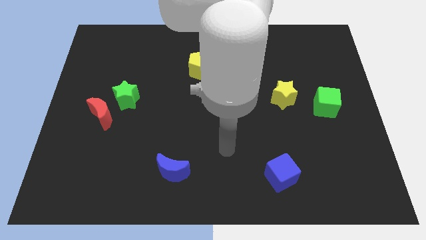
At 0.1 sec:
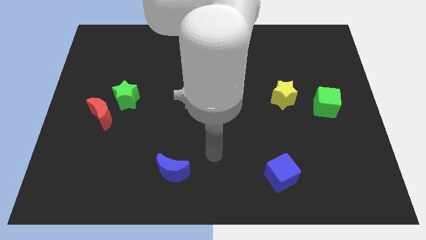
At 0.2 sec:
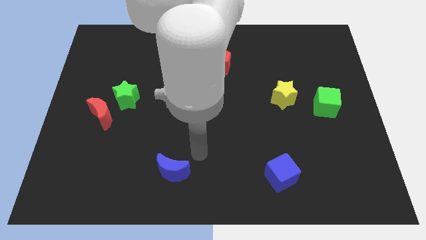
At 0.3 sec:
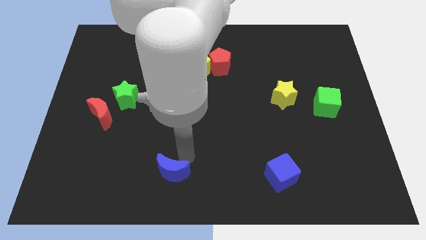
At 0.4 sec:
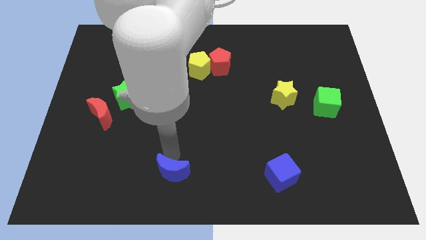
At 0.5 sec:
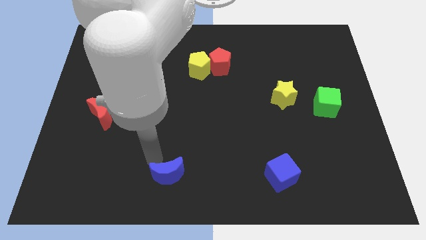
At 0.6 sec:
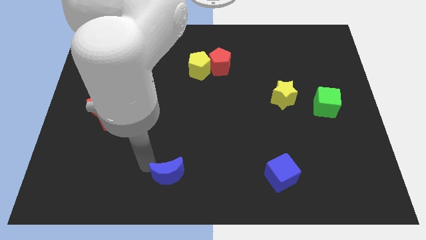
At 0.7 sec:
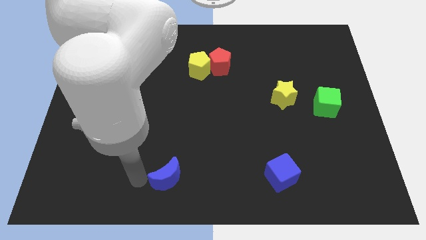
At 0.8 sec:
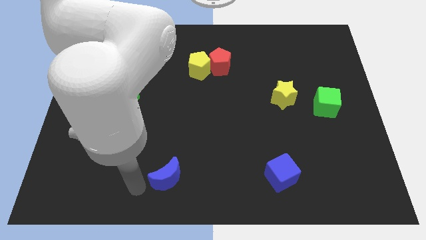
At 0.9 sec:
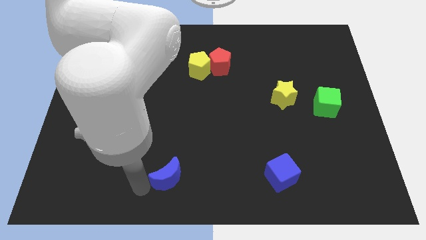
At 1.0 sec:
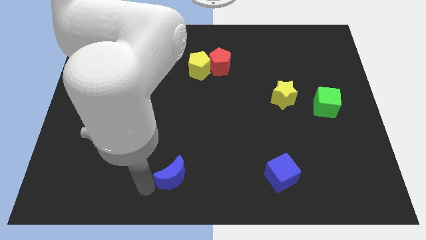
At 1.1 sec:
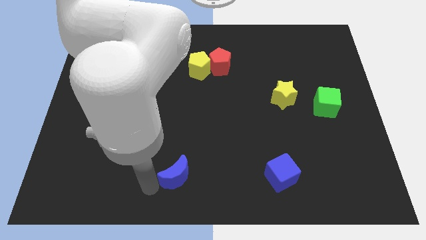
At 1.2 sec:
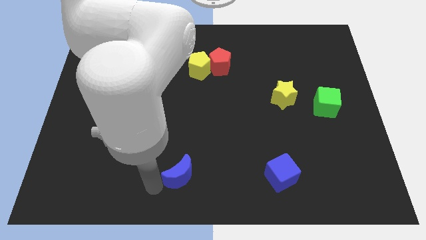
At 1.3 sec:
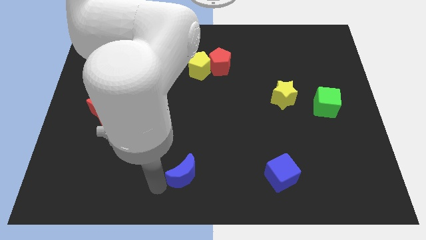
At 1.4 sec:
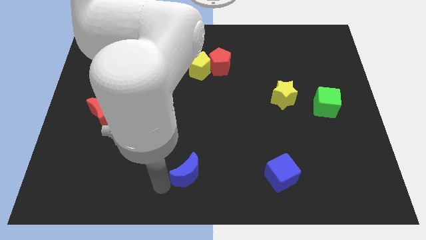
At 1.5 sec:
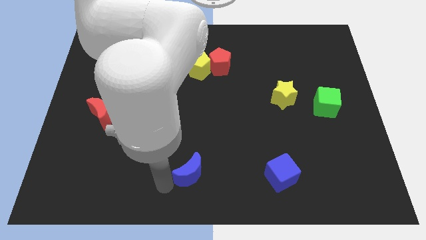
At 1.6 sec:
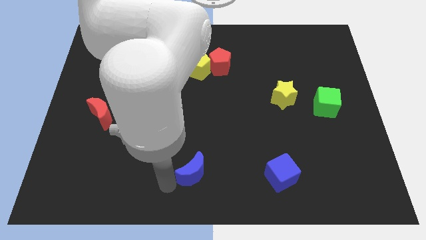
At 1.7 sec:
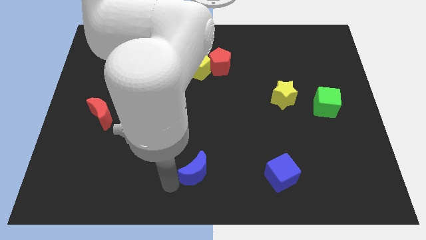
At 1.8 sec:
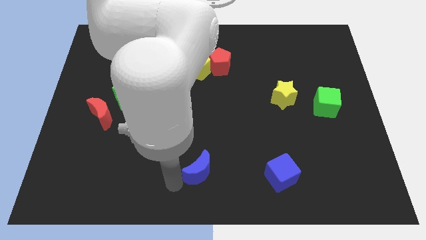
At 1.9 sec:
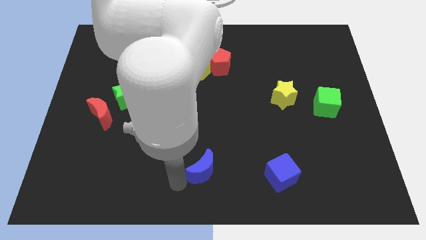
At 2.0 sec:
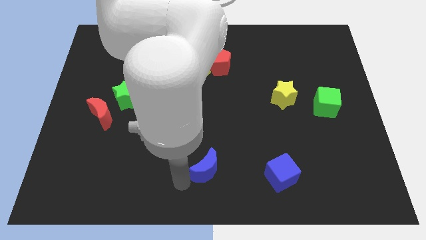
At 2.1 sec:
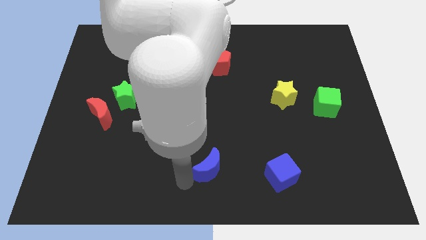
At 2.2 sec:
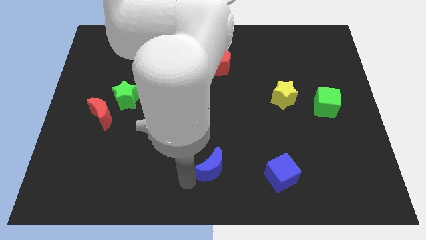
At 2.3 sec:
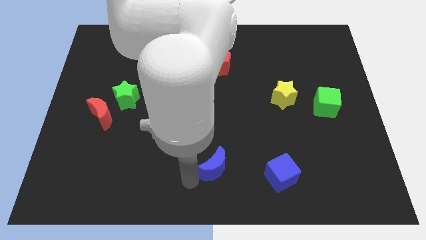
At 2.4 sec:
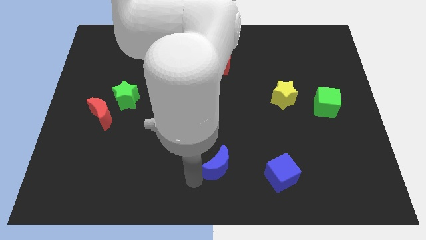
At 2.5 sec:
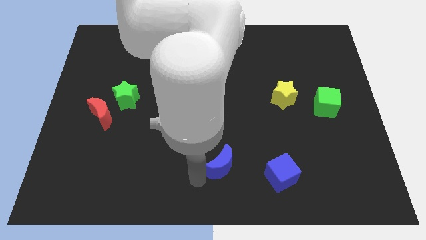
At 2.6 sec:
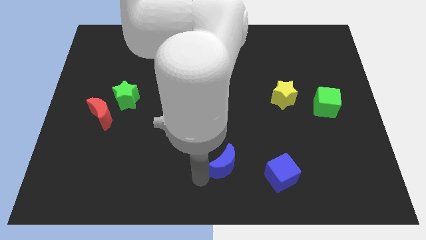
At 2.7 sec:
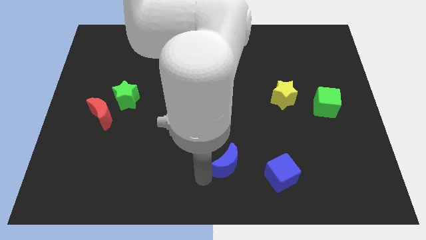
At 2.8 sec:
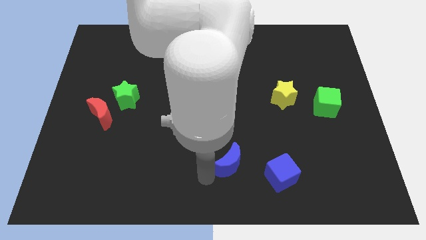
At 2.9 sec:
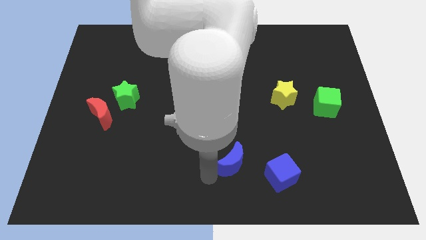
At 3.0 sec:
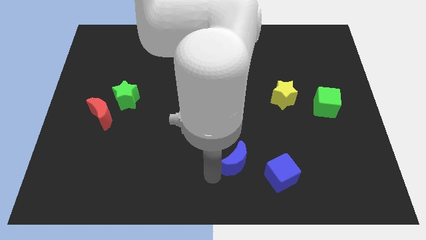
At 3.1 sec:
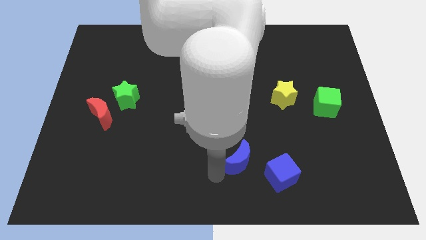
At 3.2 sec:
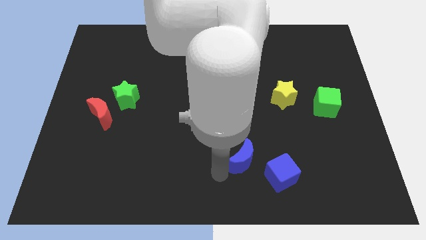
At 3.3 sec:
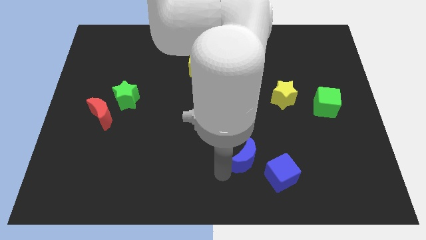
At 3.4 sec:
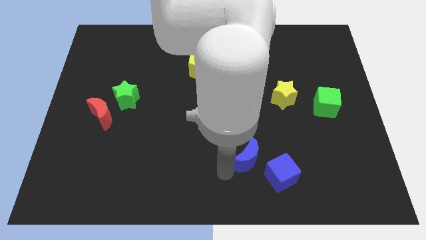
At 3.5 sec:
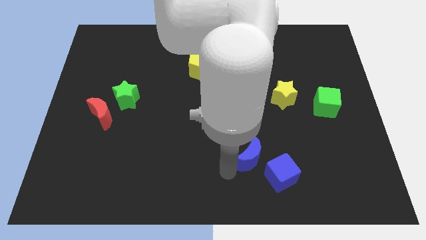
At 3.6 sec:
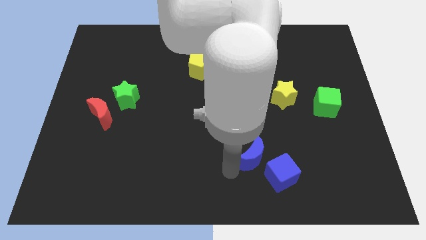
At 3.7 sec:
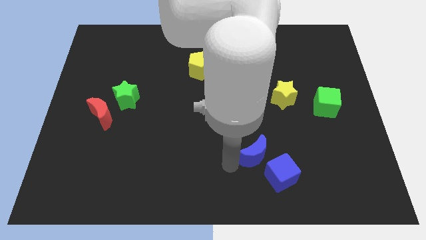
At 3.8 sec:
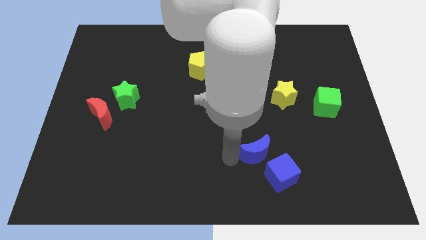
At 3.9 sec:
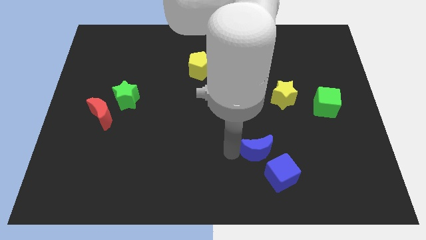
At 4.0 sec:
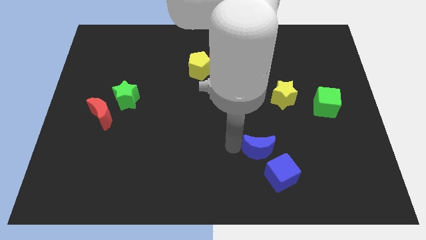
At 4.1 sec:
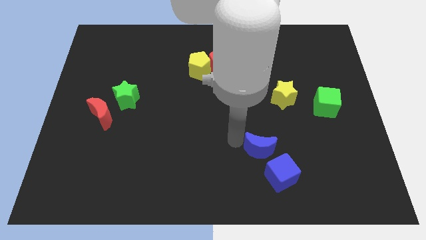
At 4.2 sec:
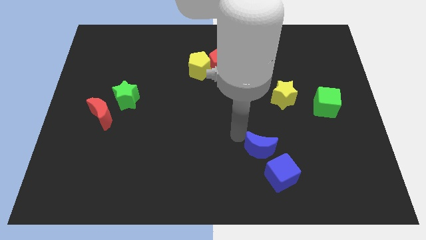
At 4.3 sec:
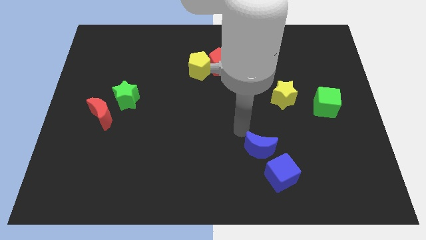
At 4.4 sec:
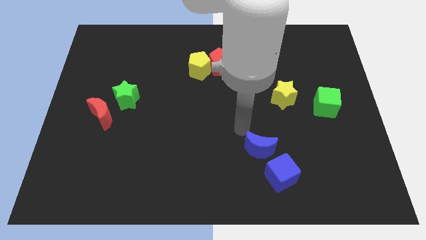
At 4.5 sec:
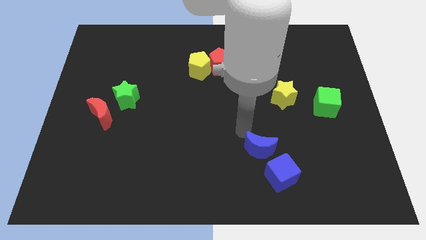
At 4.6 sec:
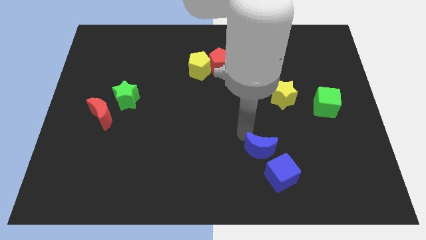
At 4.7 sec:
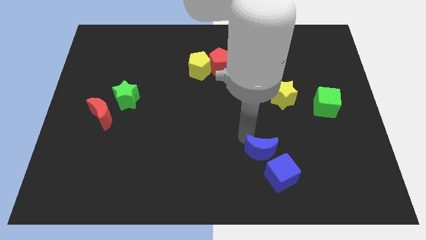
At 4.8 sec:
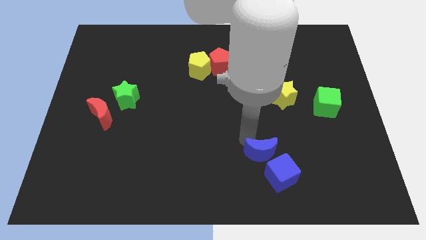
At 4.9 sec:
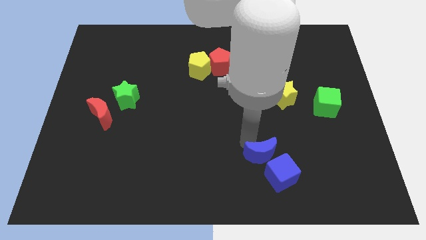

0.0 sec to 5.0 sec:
push the blue moon close to the blue cube

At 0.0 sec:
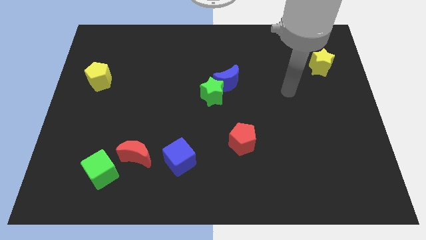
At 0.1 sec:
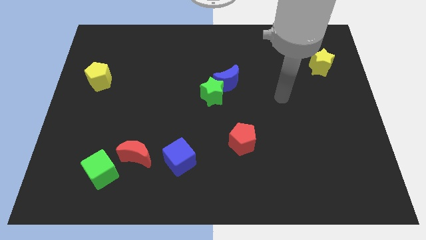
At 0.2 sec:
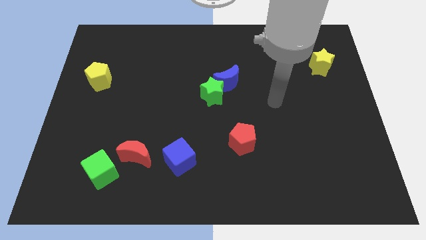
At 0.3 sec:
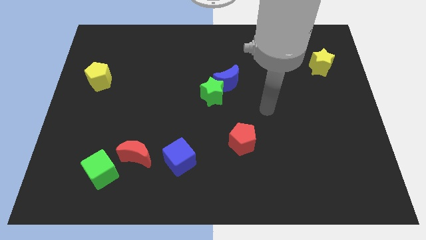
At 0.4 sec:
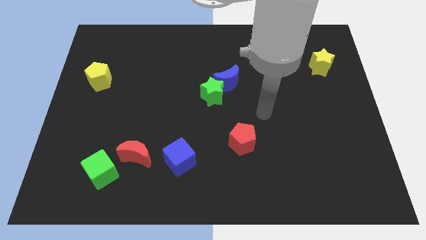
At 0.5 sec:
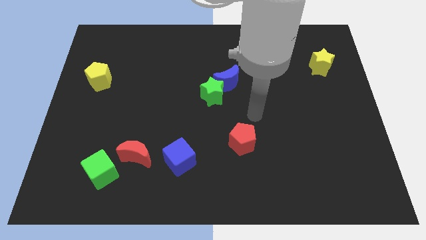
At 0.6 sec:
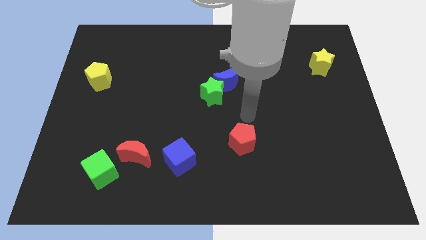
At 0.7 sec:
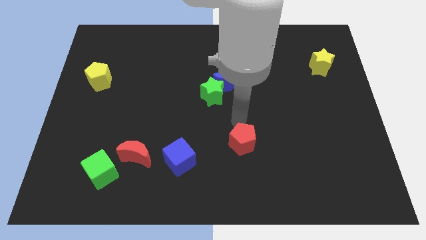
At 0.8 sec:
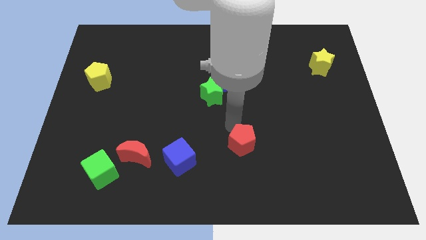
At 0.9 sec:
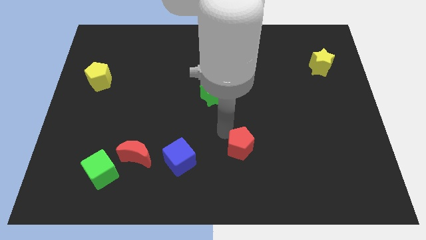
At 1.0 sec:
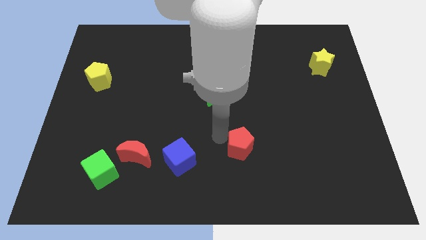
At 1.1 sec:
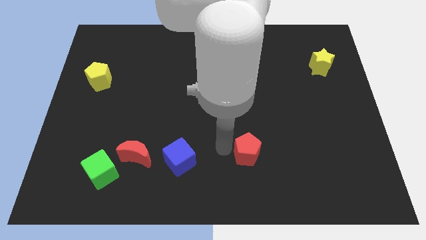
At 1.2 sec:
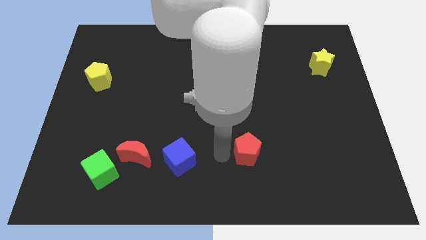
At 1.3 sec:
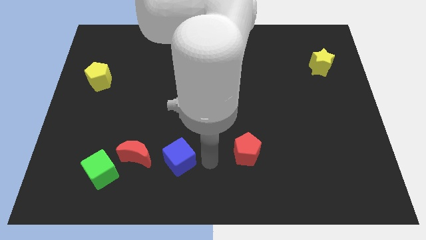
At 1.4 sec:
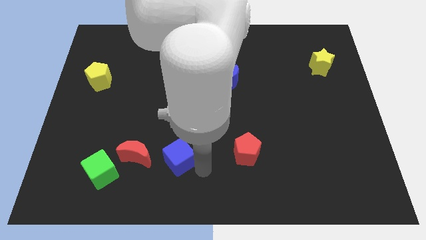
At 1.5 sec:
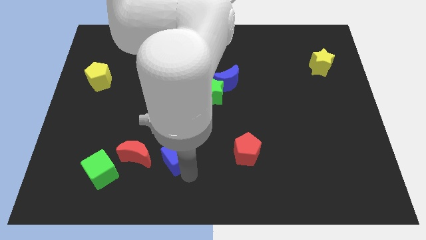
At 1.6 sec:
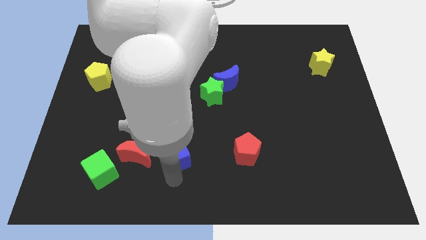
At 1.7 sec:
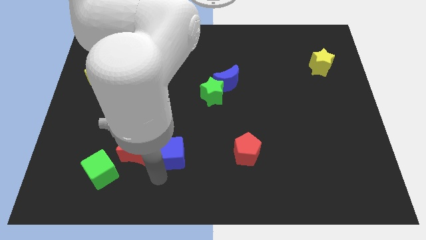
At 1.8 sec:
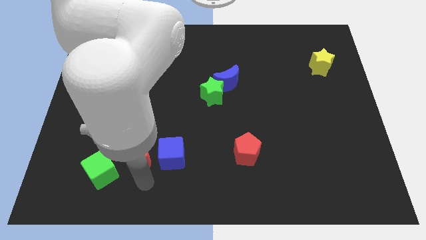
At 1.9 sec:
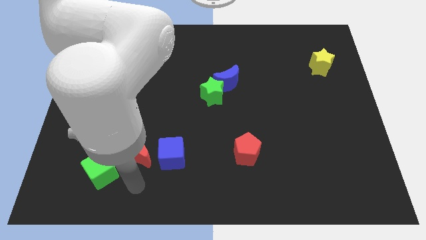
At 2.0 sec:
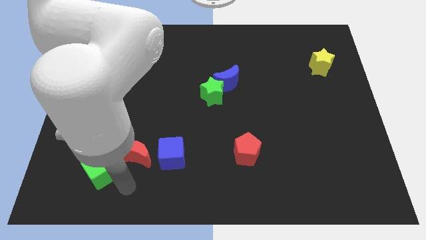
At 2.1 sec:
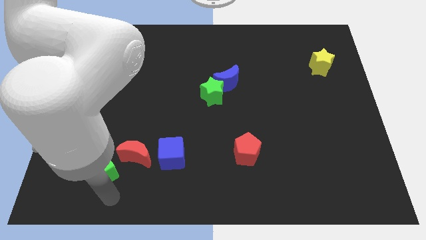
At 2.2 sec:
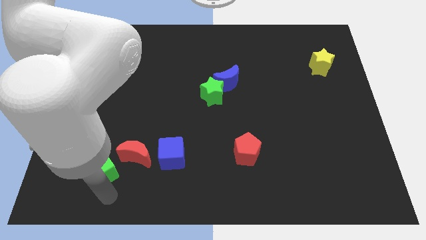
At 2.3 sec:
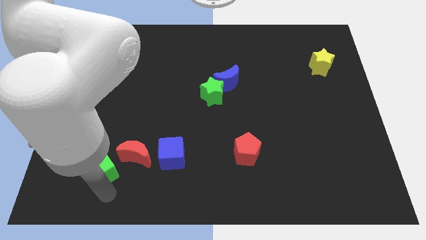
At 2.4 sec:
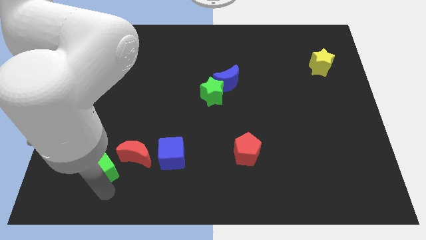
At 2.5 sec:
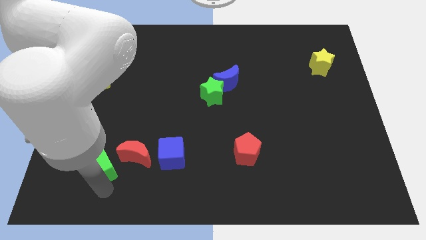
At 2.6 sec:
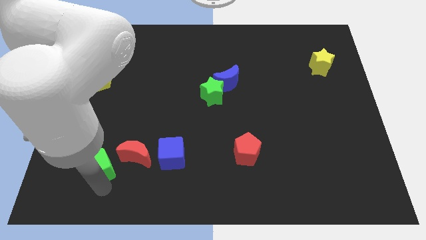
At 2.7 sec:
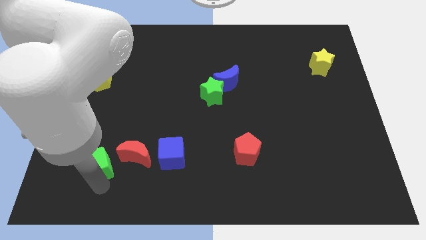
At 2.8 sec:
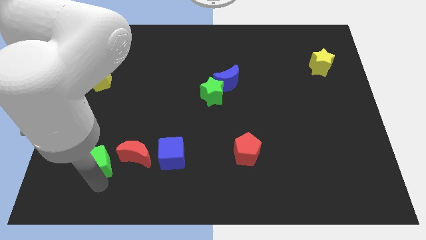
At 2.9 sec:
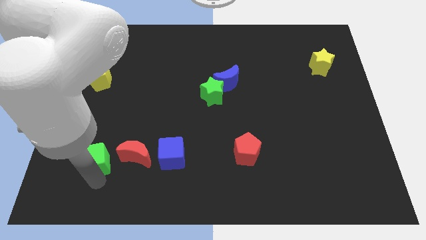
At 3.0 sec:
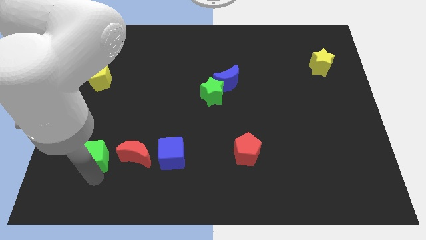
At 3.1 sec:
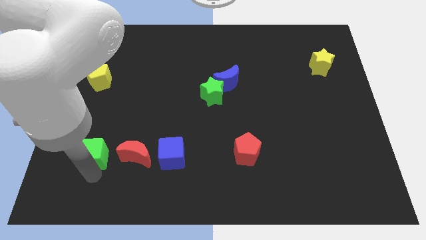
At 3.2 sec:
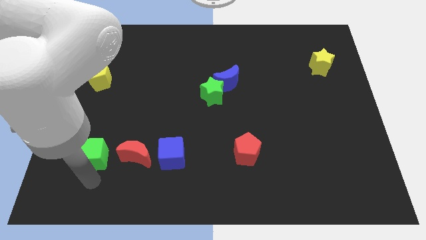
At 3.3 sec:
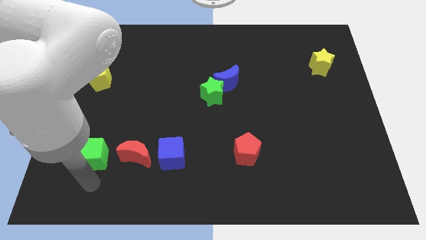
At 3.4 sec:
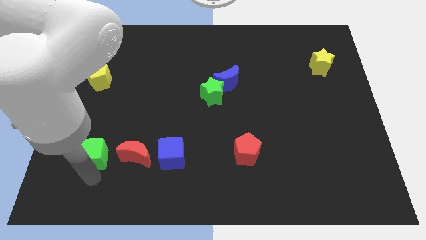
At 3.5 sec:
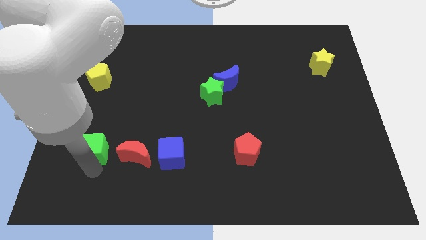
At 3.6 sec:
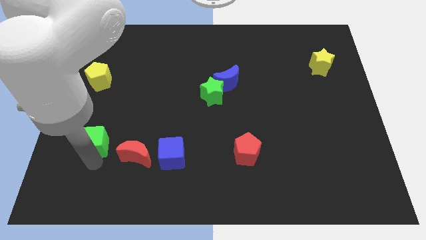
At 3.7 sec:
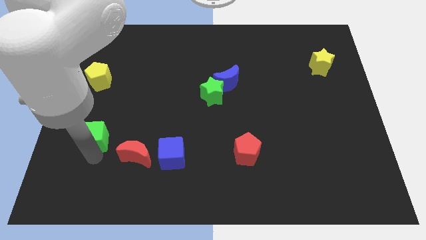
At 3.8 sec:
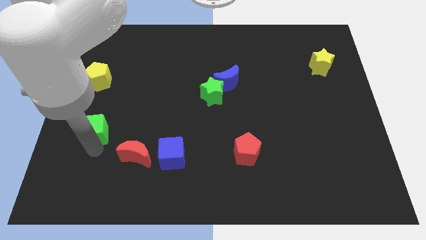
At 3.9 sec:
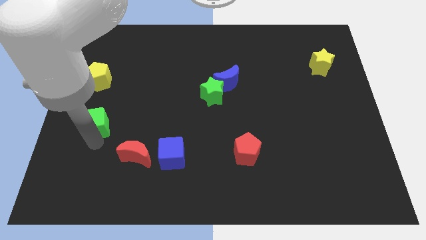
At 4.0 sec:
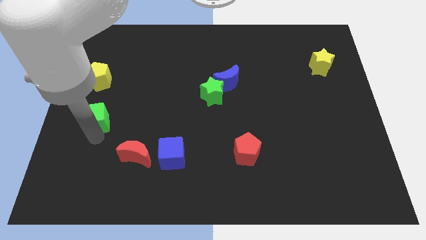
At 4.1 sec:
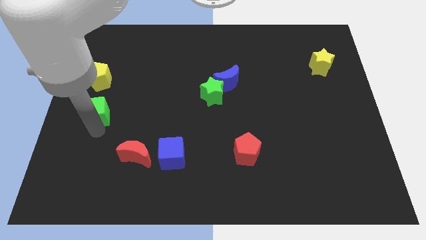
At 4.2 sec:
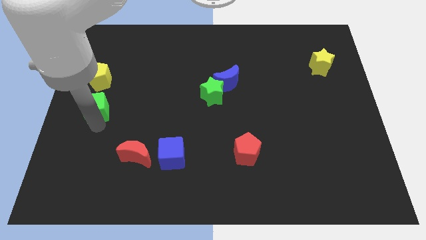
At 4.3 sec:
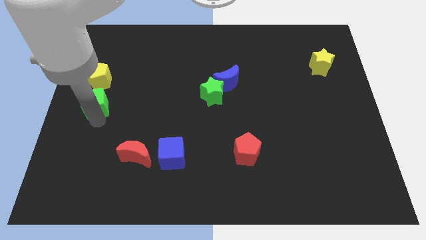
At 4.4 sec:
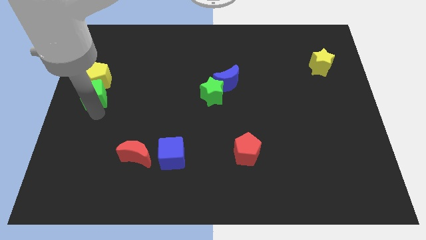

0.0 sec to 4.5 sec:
push the green cube towards the yellow pentagon
